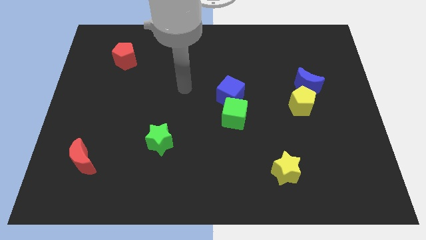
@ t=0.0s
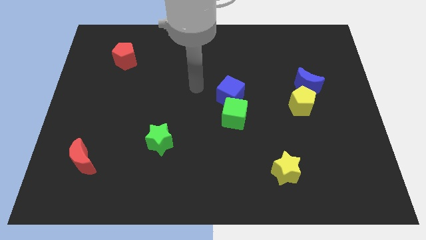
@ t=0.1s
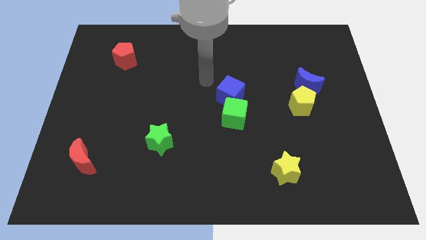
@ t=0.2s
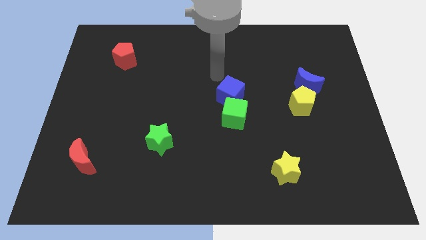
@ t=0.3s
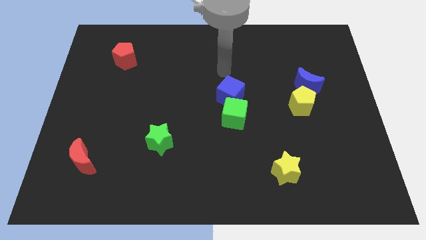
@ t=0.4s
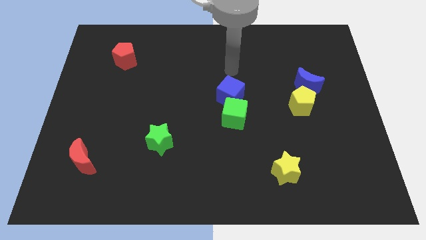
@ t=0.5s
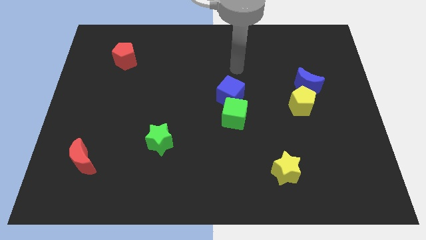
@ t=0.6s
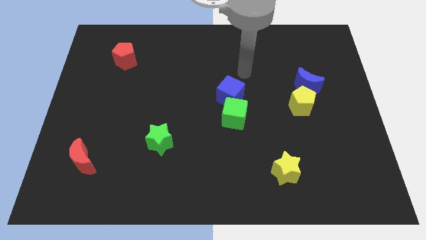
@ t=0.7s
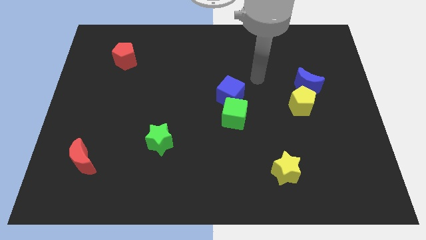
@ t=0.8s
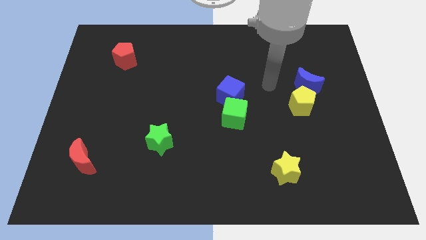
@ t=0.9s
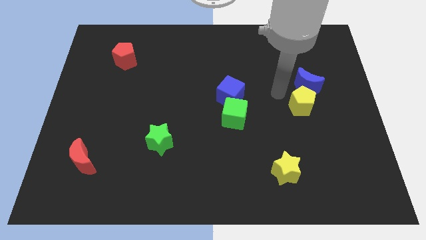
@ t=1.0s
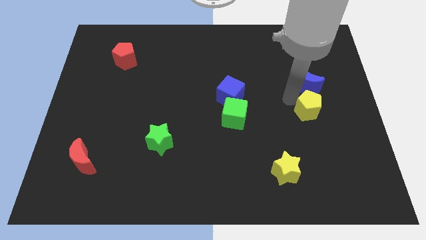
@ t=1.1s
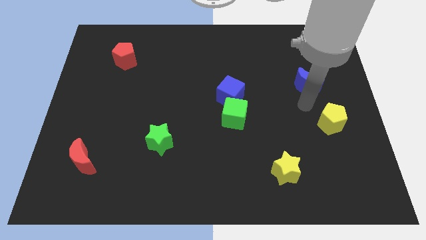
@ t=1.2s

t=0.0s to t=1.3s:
pull the blue moon apart from the yellow pentagon

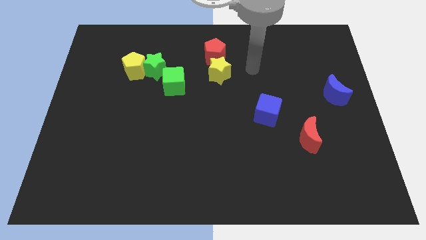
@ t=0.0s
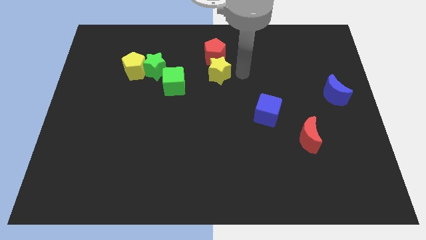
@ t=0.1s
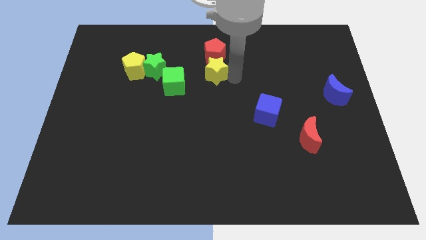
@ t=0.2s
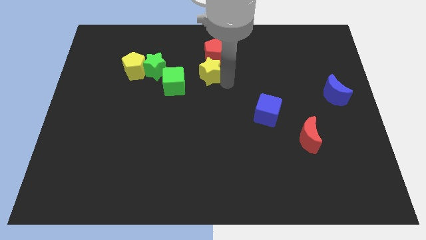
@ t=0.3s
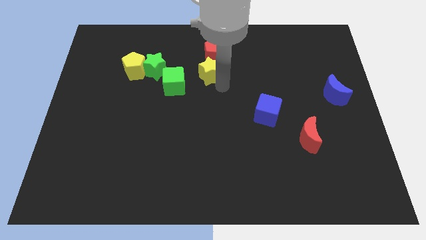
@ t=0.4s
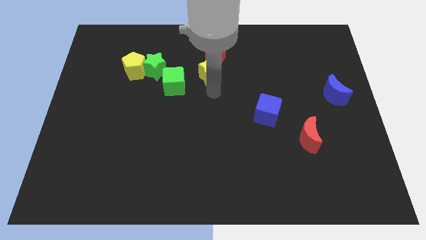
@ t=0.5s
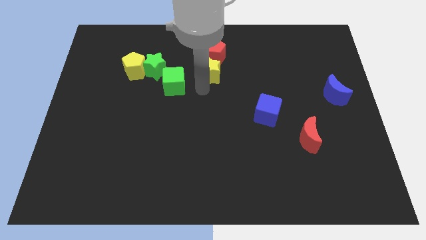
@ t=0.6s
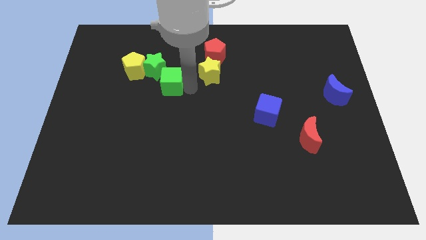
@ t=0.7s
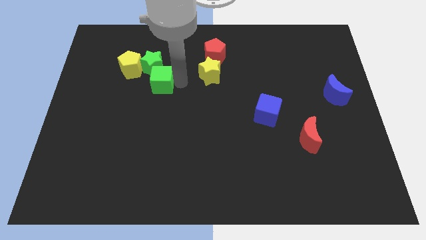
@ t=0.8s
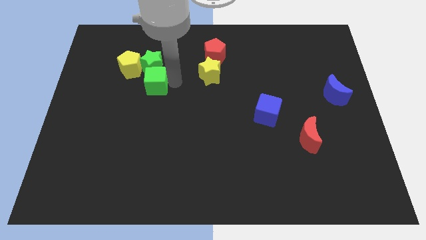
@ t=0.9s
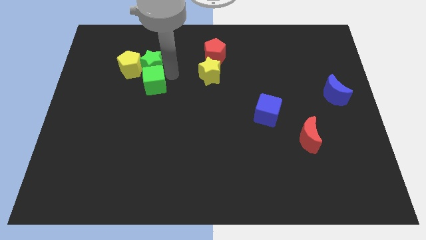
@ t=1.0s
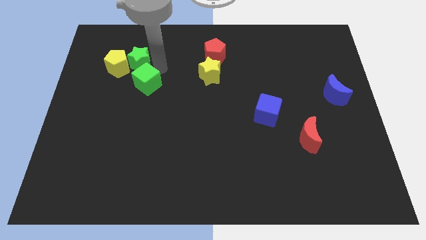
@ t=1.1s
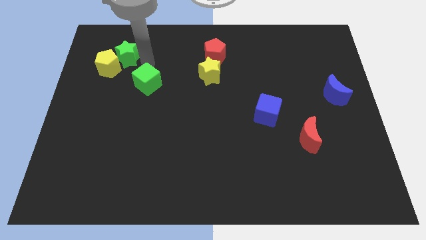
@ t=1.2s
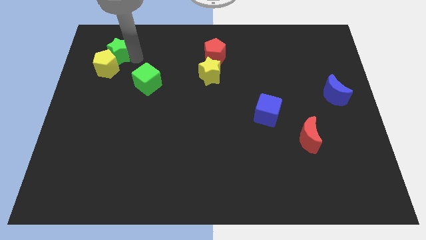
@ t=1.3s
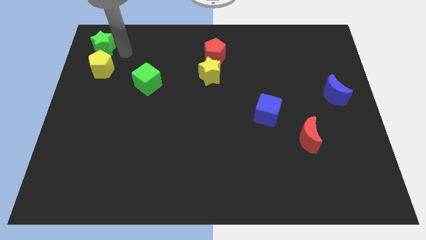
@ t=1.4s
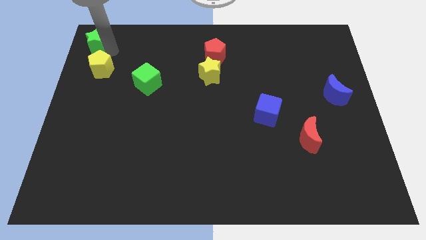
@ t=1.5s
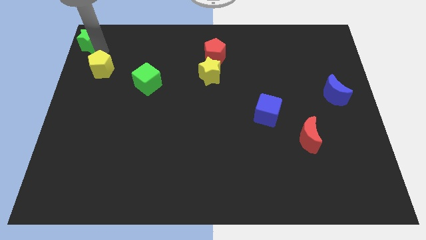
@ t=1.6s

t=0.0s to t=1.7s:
pull the yellow pentagon apart from the green star

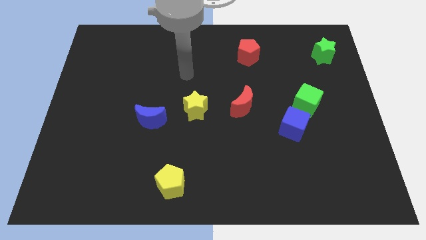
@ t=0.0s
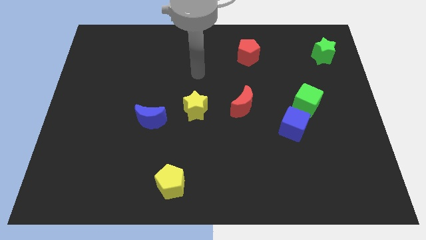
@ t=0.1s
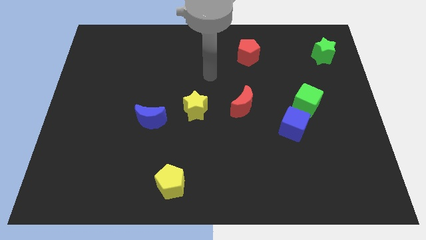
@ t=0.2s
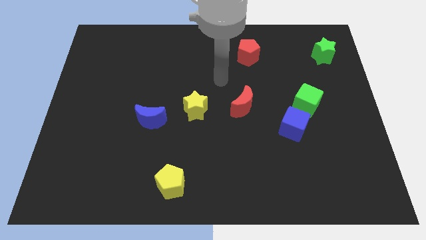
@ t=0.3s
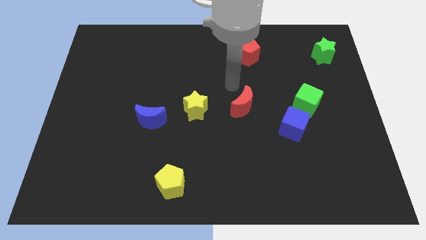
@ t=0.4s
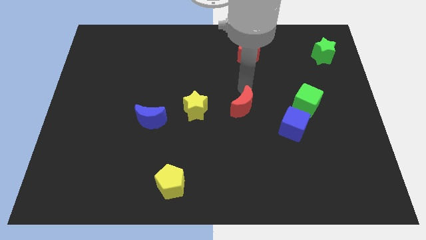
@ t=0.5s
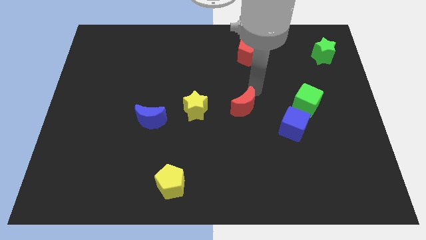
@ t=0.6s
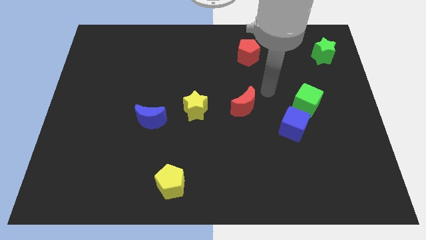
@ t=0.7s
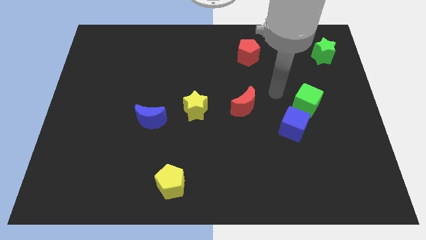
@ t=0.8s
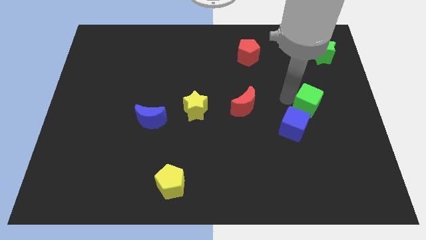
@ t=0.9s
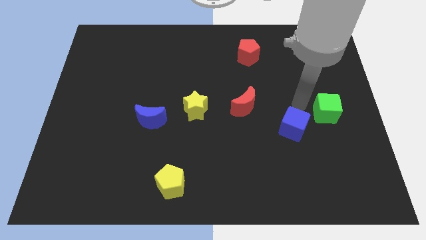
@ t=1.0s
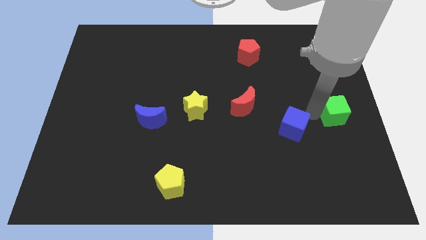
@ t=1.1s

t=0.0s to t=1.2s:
move the blue cube away from the green cube

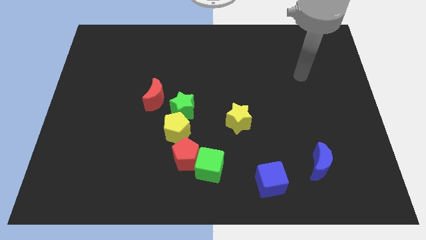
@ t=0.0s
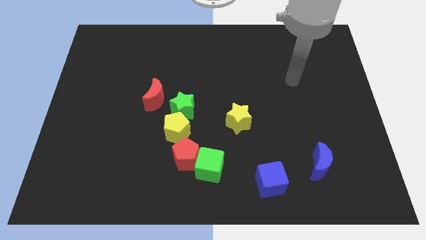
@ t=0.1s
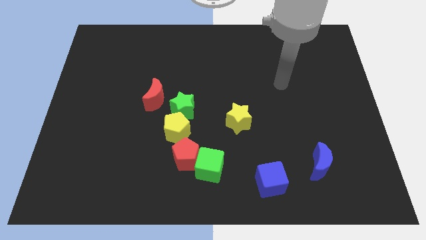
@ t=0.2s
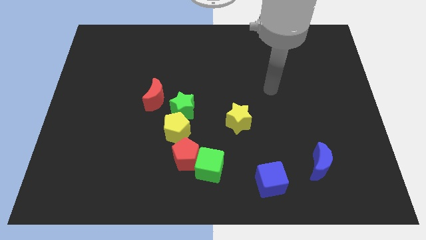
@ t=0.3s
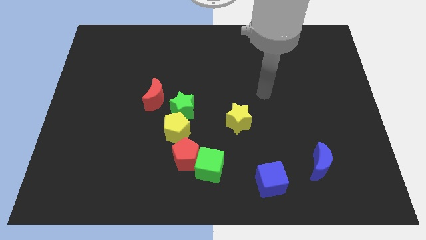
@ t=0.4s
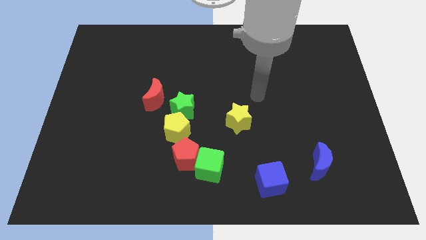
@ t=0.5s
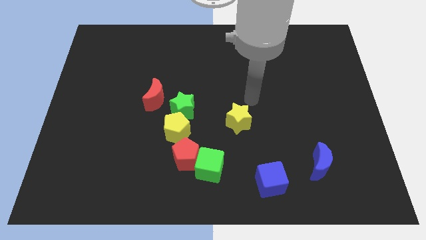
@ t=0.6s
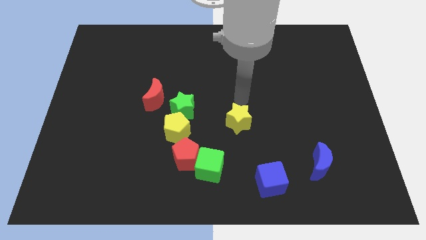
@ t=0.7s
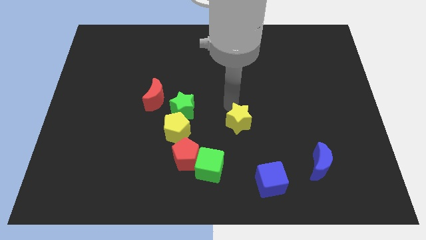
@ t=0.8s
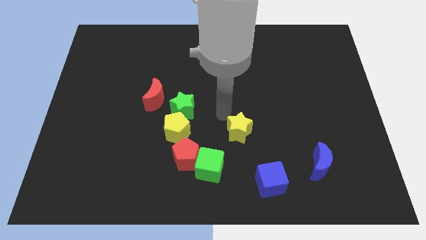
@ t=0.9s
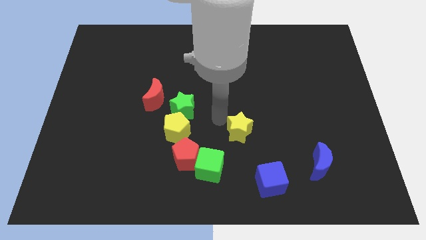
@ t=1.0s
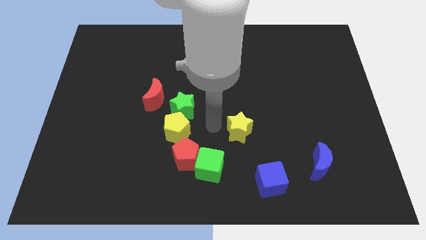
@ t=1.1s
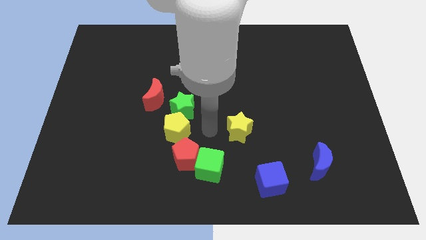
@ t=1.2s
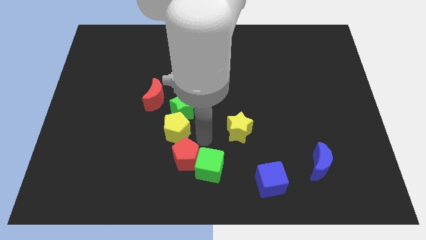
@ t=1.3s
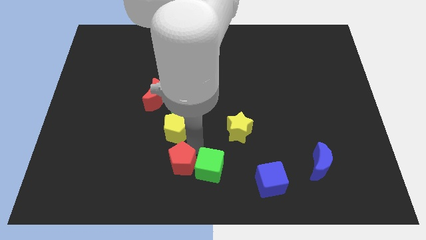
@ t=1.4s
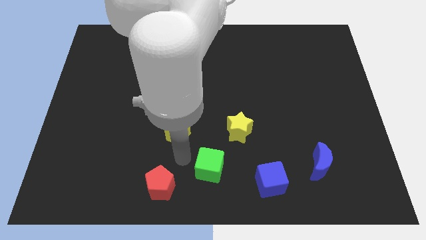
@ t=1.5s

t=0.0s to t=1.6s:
separate the green cube from the red pentagon

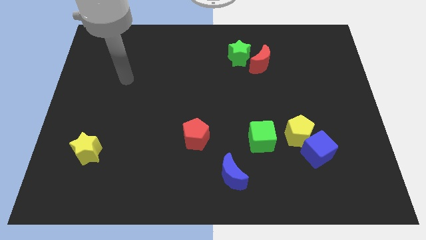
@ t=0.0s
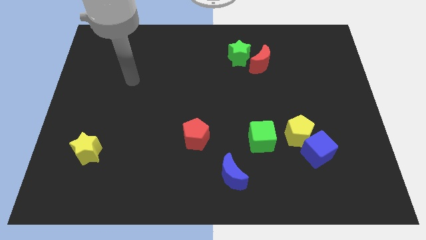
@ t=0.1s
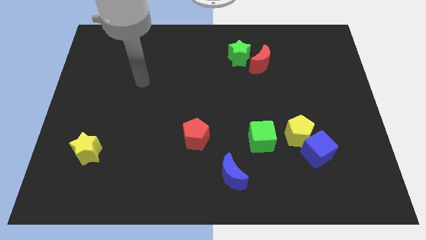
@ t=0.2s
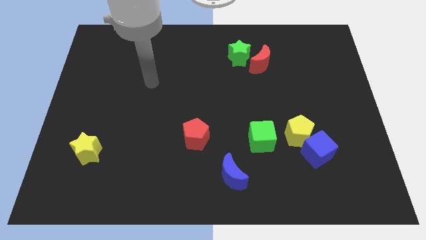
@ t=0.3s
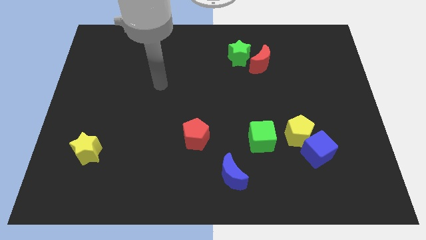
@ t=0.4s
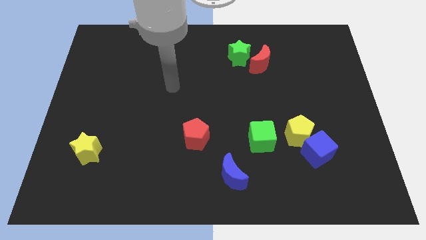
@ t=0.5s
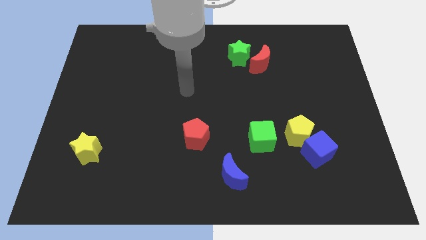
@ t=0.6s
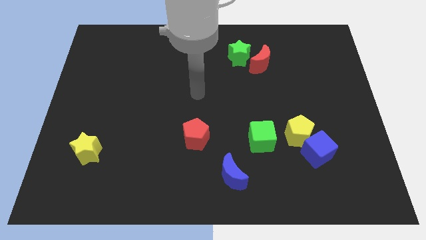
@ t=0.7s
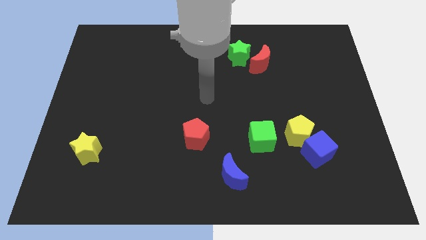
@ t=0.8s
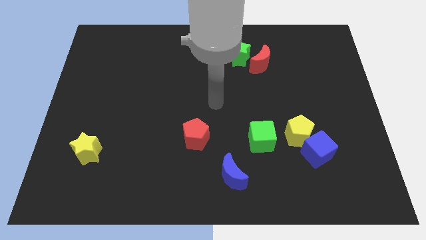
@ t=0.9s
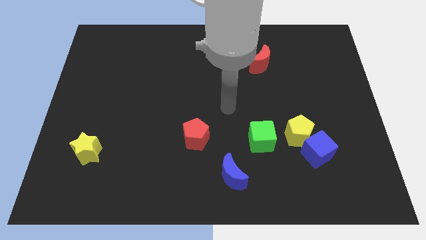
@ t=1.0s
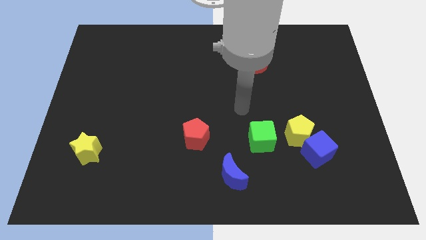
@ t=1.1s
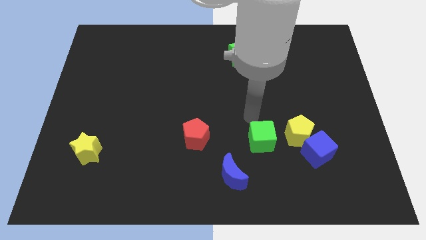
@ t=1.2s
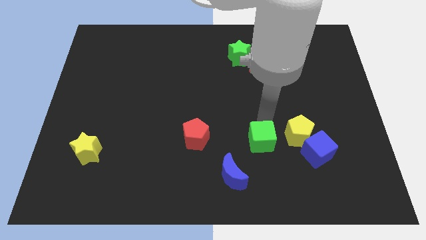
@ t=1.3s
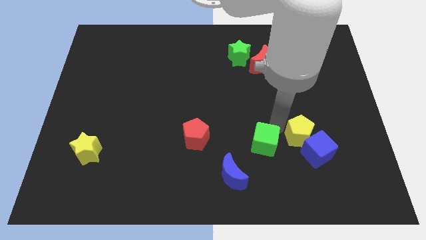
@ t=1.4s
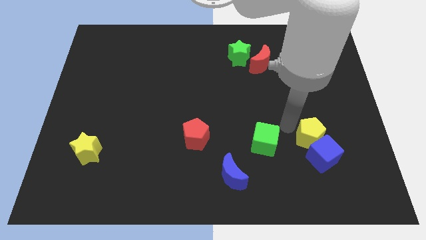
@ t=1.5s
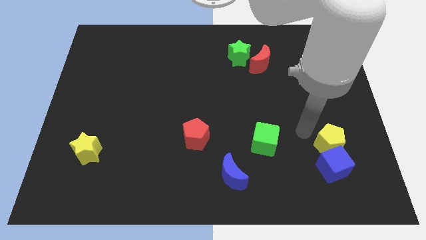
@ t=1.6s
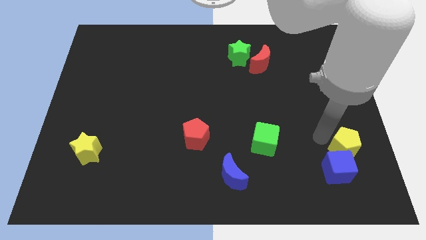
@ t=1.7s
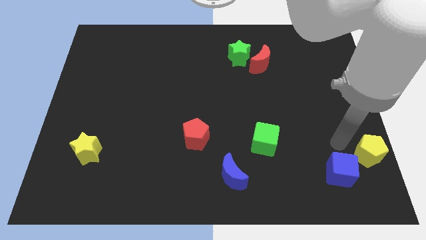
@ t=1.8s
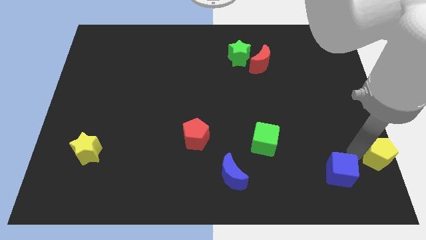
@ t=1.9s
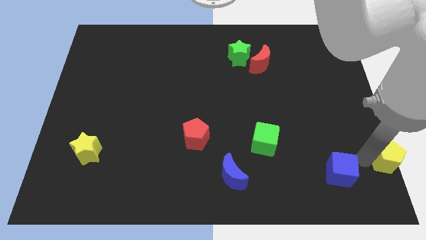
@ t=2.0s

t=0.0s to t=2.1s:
move the blue cube away from the yellow pentagon

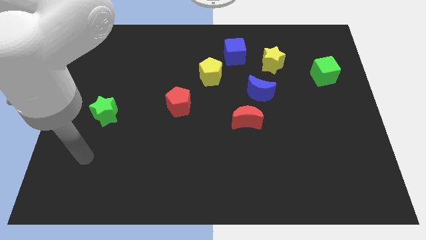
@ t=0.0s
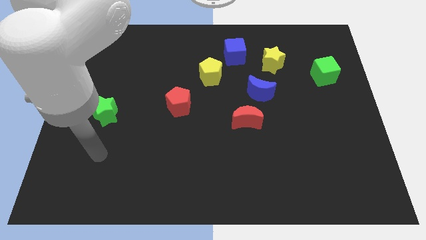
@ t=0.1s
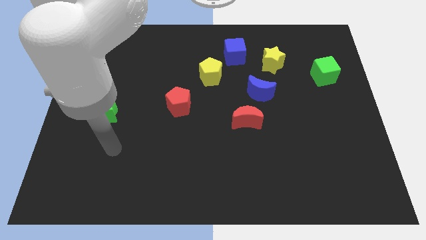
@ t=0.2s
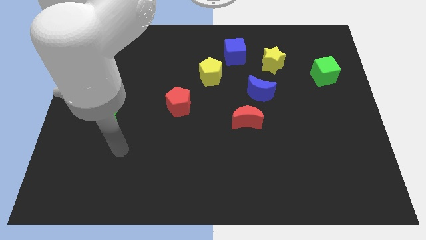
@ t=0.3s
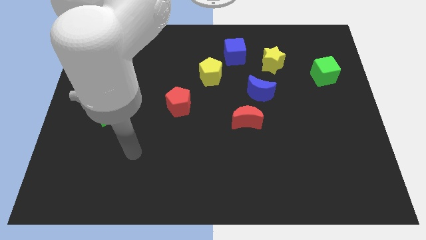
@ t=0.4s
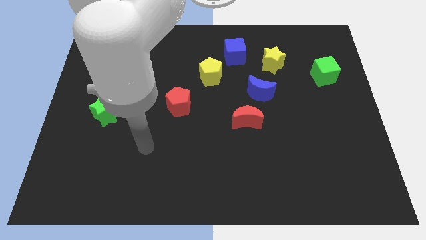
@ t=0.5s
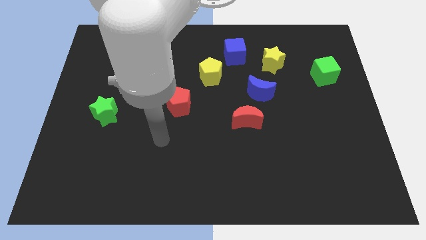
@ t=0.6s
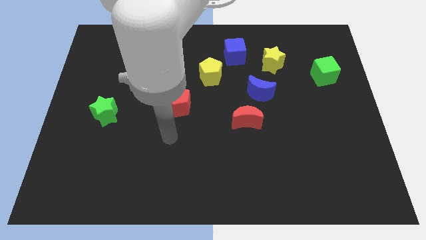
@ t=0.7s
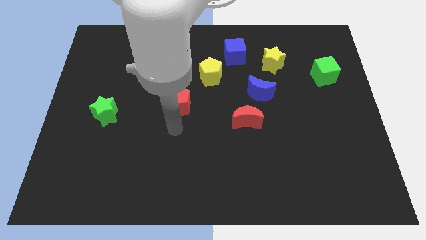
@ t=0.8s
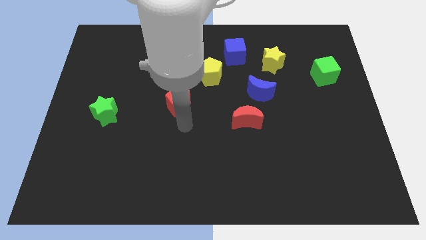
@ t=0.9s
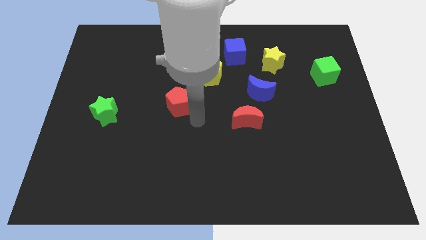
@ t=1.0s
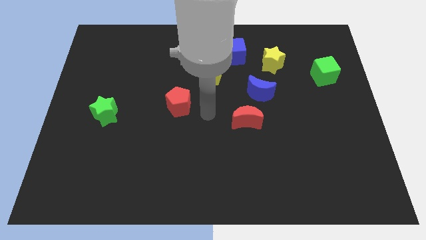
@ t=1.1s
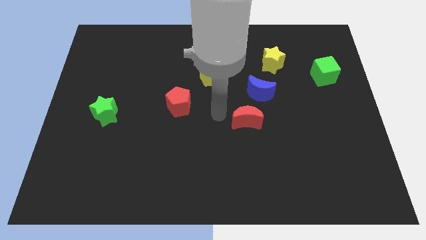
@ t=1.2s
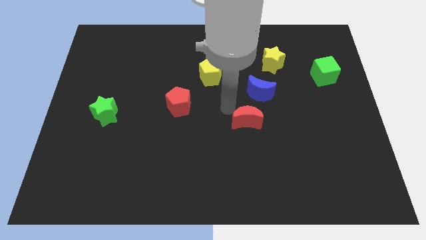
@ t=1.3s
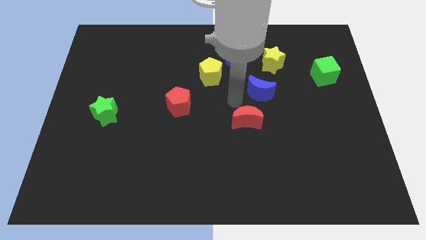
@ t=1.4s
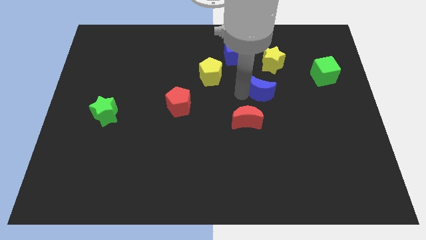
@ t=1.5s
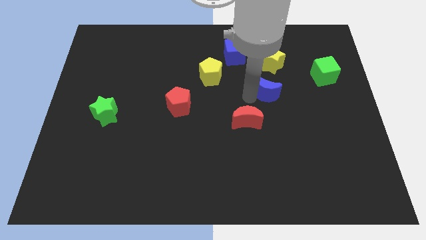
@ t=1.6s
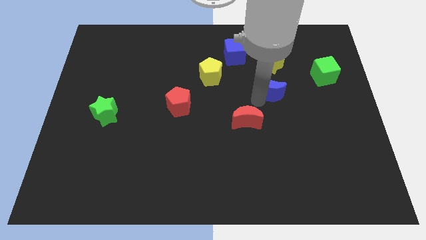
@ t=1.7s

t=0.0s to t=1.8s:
separate the red moon from the blue moon
